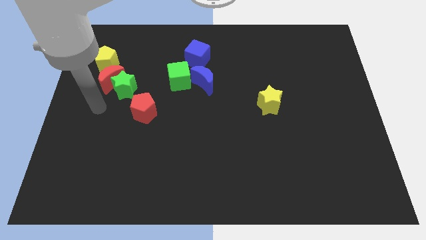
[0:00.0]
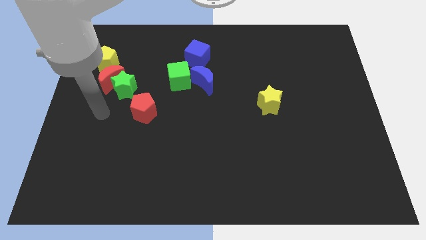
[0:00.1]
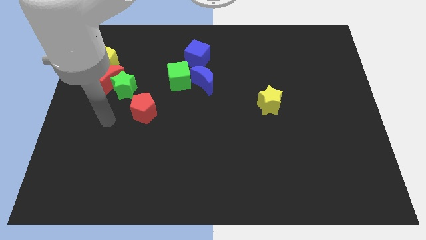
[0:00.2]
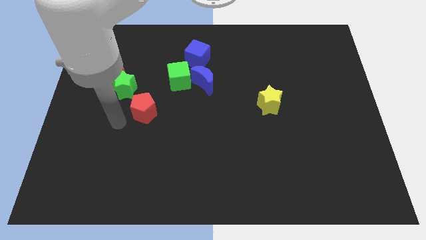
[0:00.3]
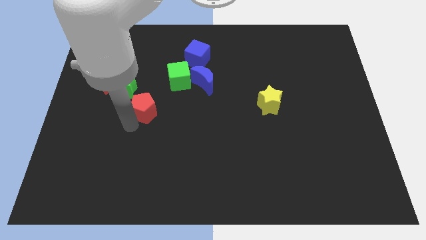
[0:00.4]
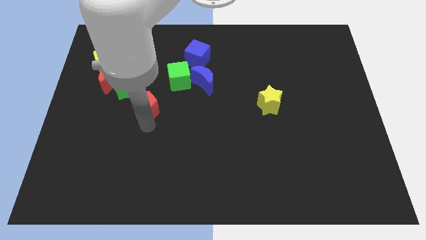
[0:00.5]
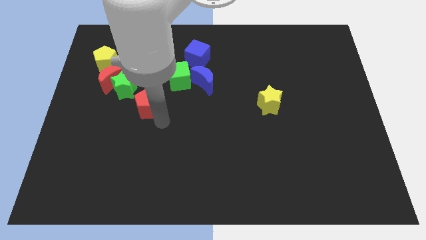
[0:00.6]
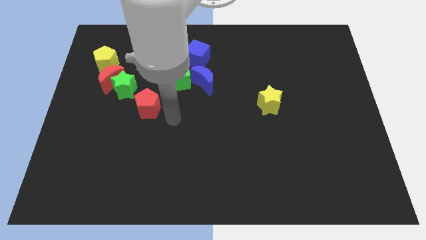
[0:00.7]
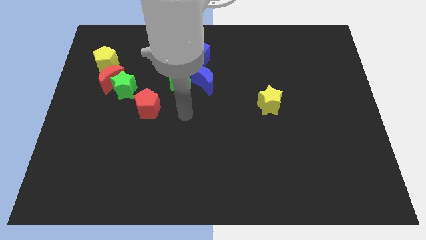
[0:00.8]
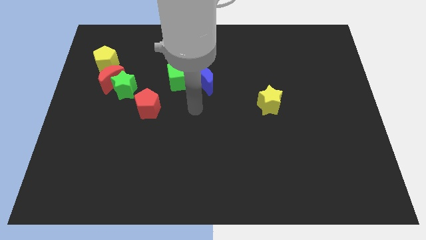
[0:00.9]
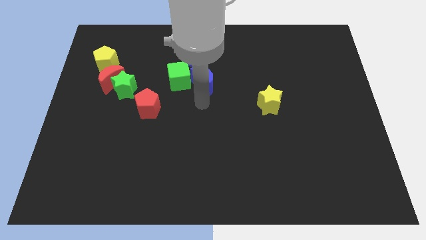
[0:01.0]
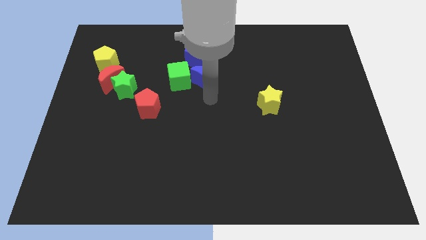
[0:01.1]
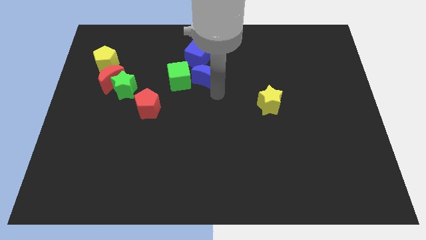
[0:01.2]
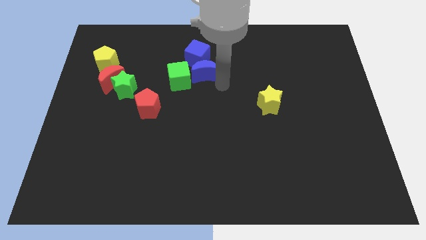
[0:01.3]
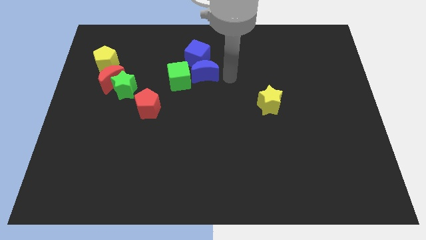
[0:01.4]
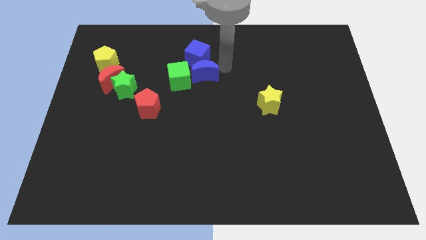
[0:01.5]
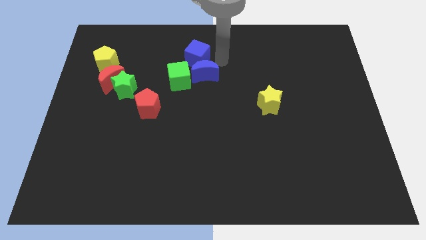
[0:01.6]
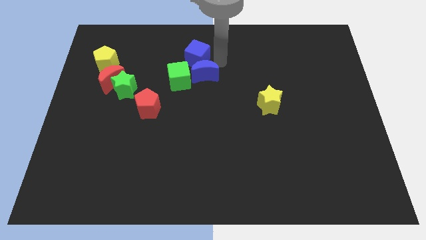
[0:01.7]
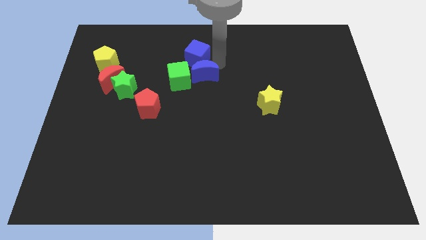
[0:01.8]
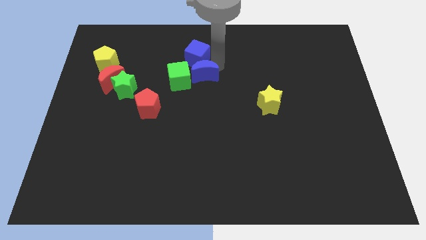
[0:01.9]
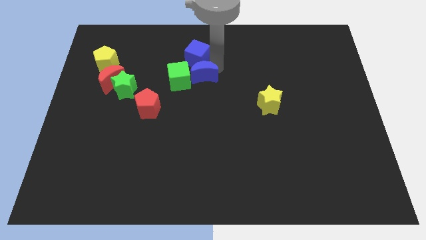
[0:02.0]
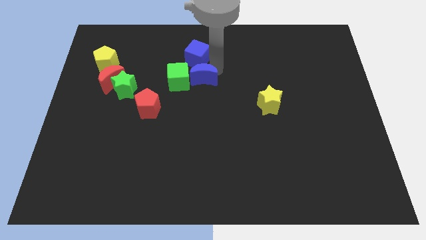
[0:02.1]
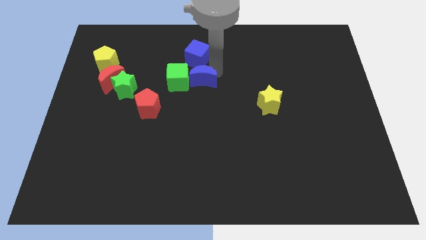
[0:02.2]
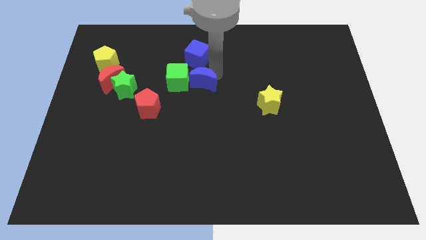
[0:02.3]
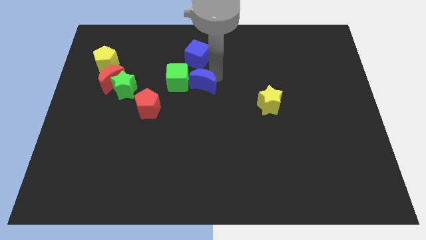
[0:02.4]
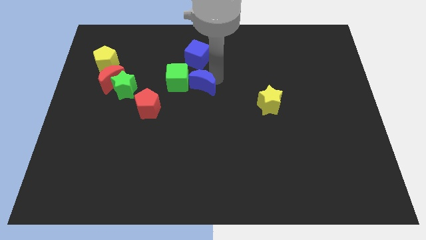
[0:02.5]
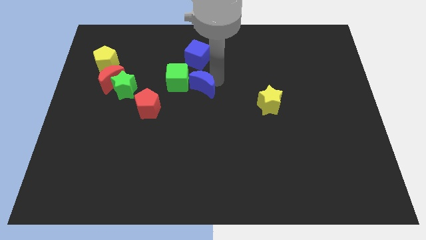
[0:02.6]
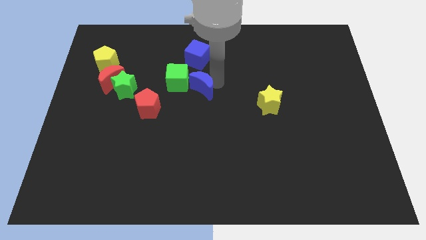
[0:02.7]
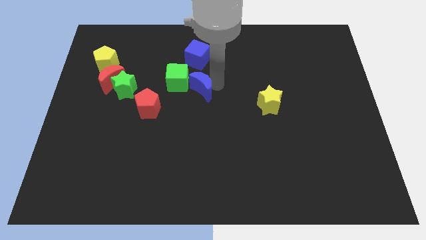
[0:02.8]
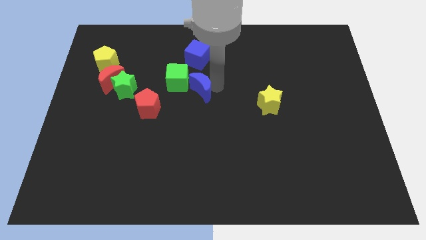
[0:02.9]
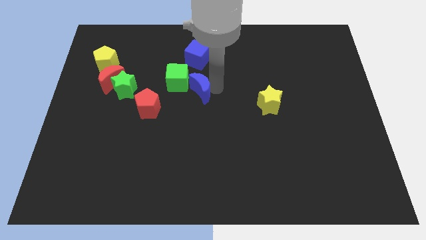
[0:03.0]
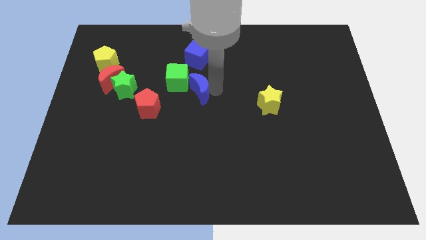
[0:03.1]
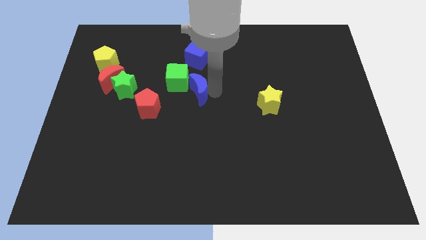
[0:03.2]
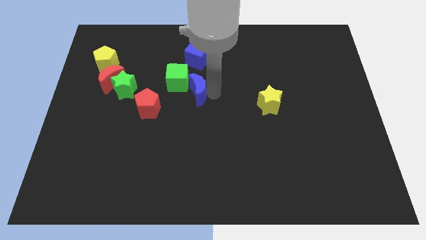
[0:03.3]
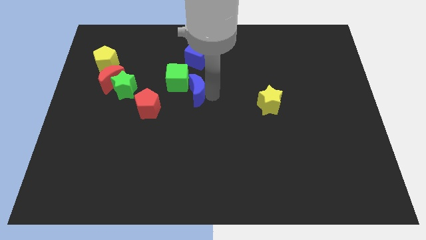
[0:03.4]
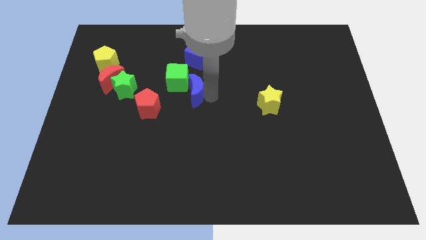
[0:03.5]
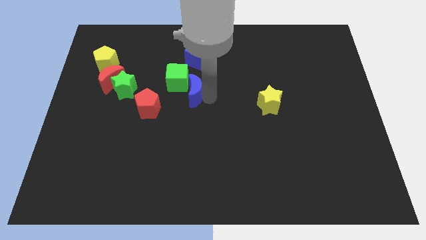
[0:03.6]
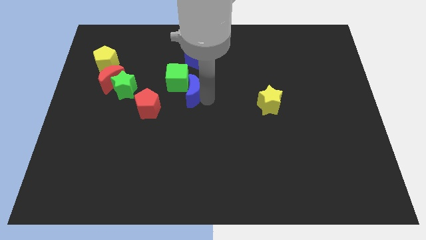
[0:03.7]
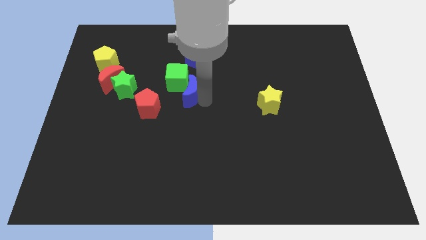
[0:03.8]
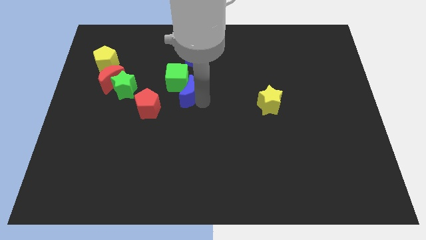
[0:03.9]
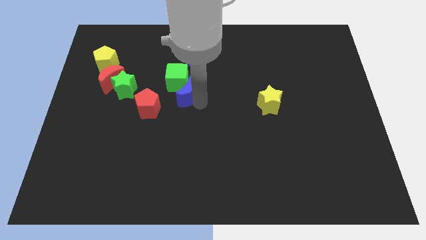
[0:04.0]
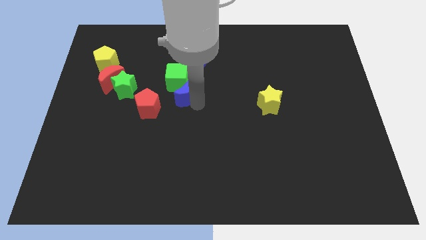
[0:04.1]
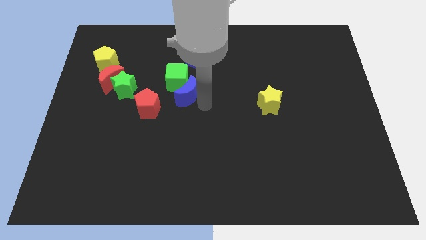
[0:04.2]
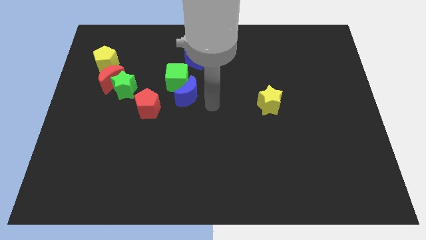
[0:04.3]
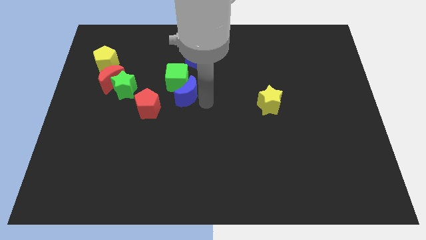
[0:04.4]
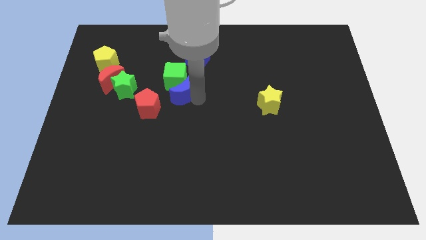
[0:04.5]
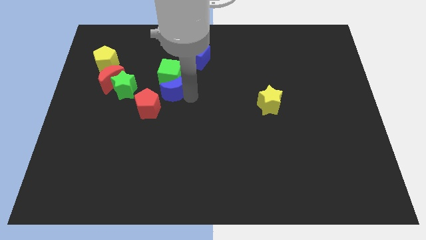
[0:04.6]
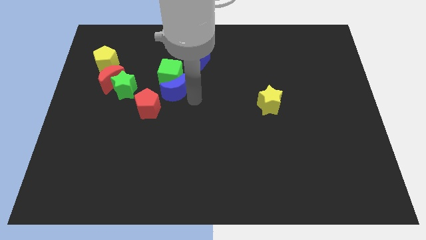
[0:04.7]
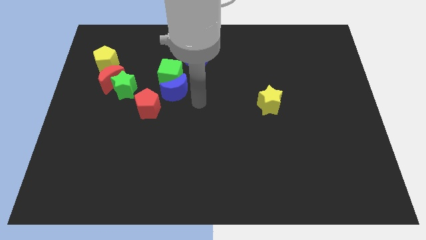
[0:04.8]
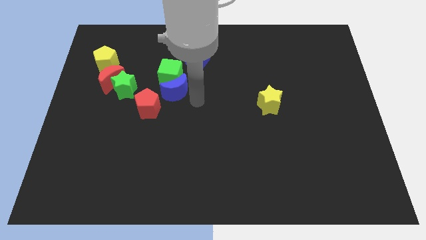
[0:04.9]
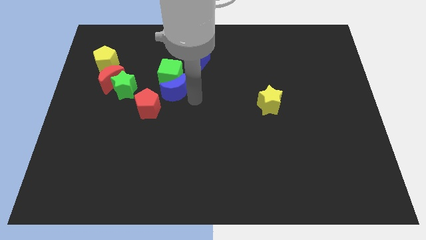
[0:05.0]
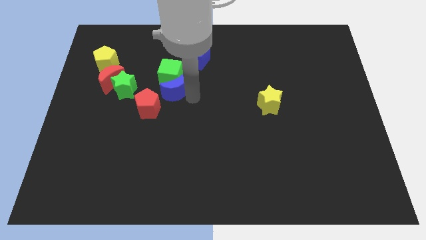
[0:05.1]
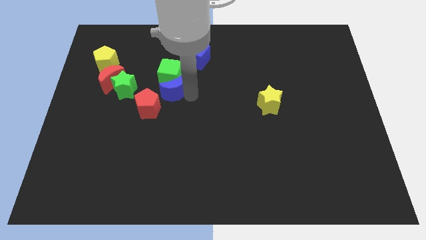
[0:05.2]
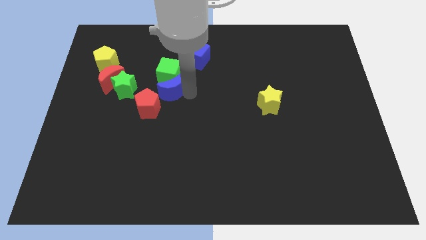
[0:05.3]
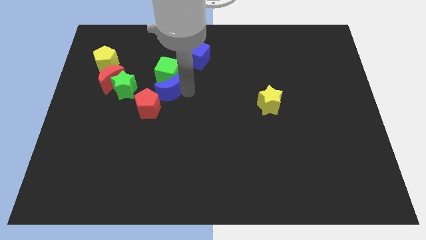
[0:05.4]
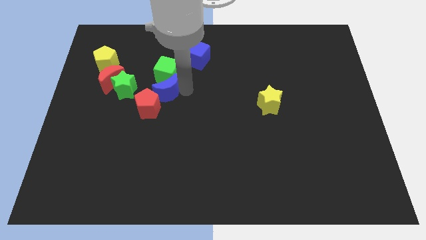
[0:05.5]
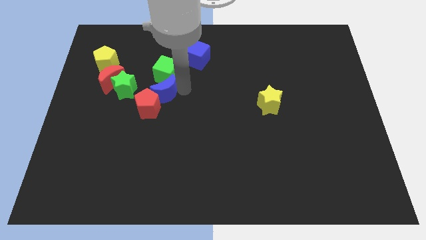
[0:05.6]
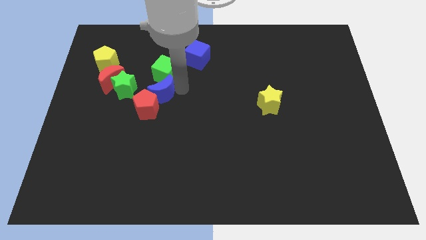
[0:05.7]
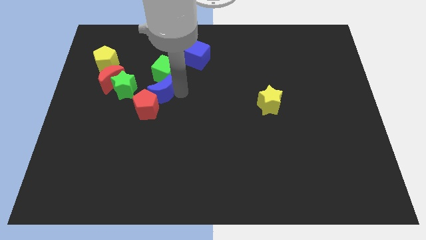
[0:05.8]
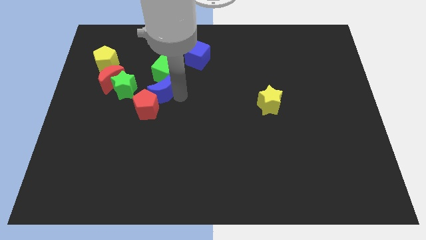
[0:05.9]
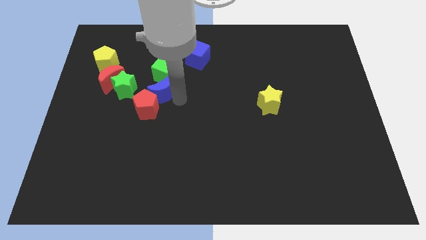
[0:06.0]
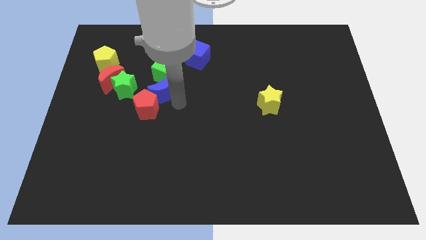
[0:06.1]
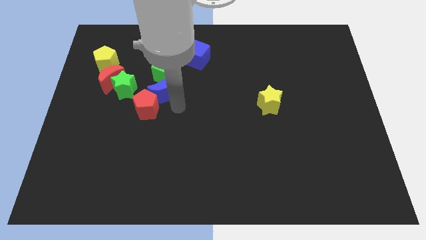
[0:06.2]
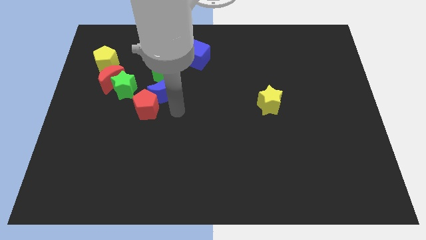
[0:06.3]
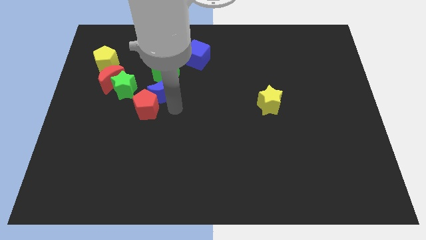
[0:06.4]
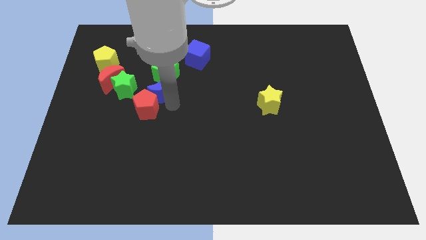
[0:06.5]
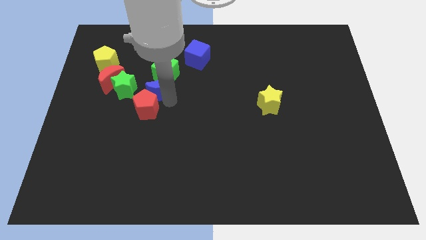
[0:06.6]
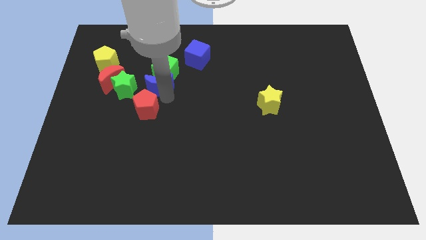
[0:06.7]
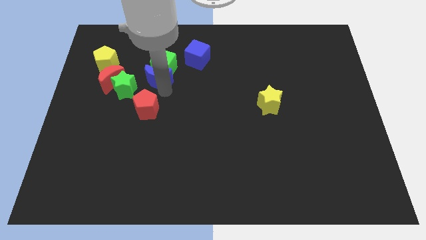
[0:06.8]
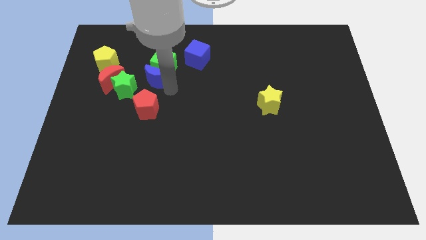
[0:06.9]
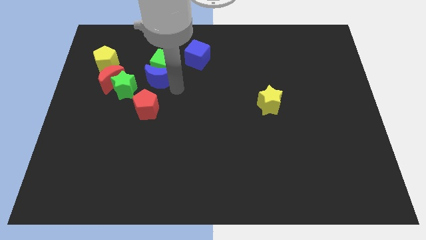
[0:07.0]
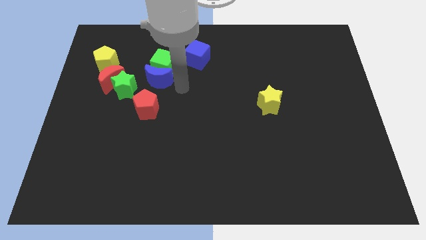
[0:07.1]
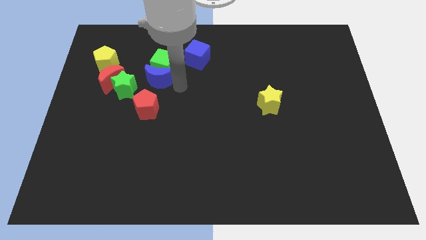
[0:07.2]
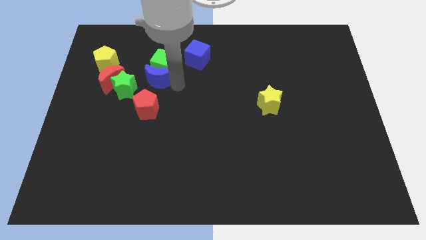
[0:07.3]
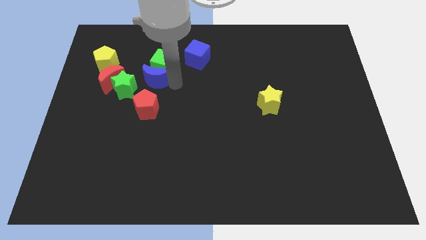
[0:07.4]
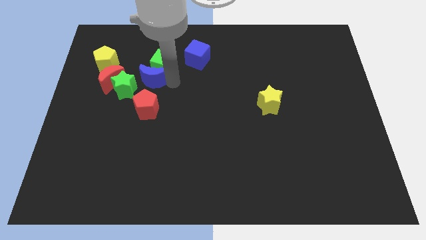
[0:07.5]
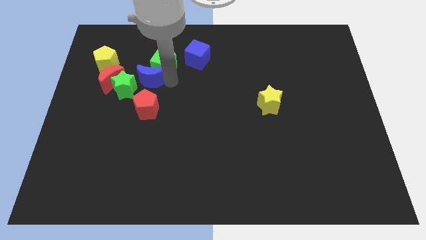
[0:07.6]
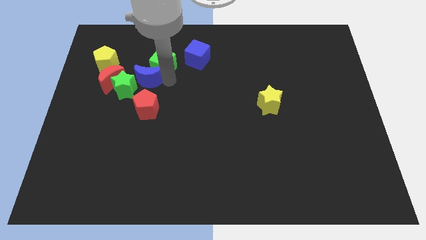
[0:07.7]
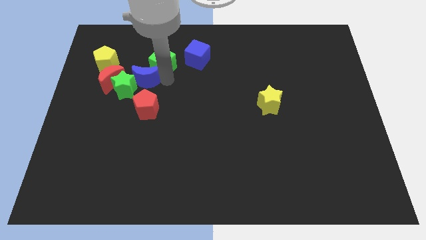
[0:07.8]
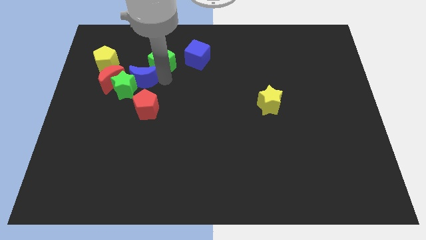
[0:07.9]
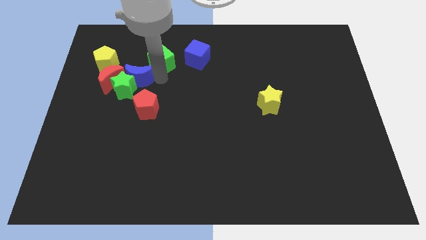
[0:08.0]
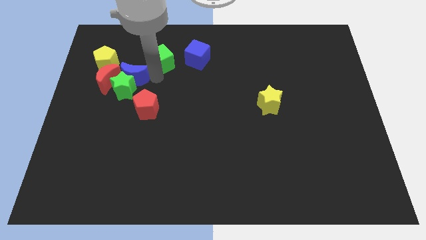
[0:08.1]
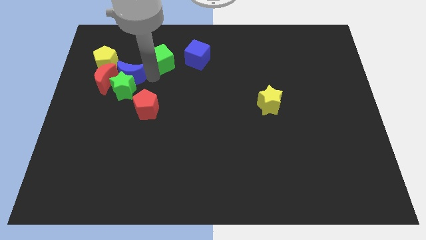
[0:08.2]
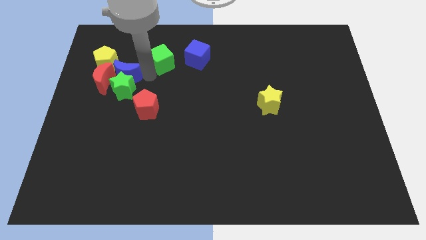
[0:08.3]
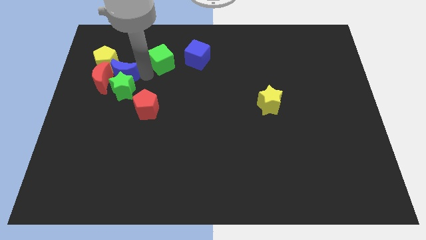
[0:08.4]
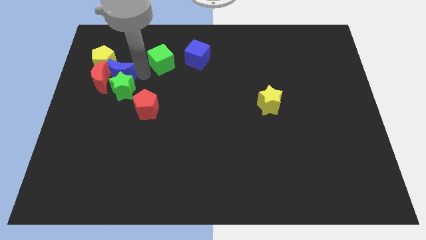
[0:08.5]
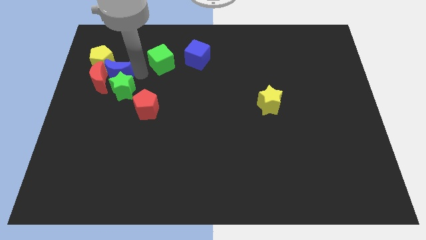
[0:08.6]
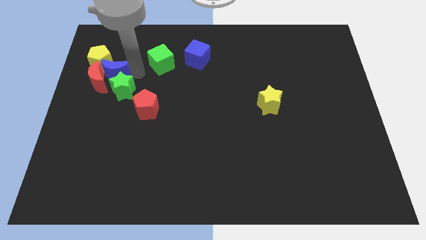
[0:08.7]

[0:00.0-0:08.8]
put the blue moon close to the yellow pentagon
